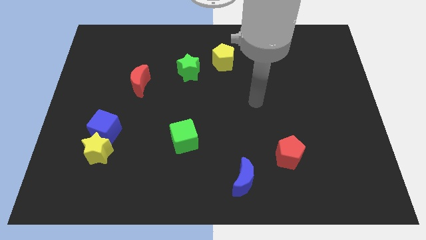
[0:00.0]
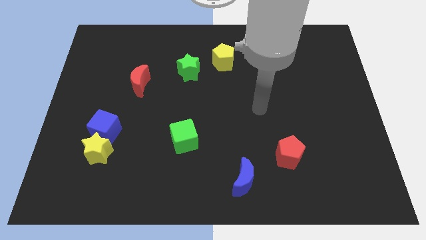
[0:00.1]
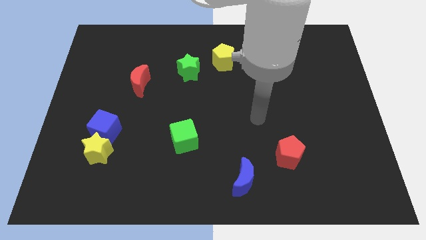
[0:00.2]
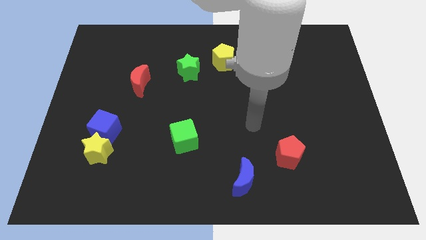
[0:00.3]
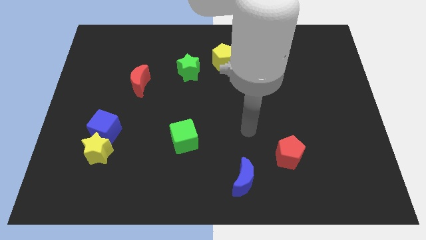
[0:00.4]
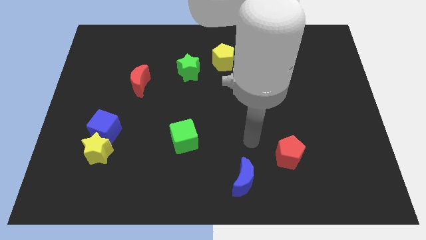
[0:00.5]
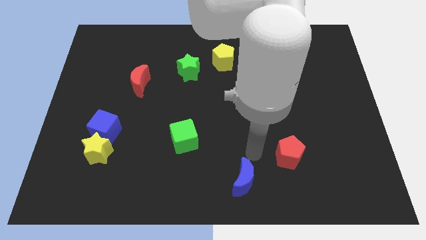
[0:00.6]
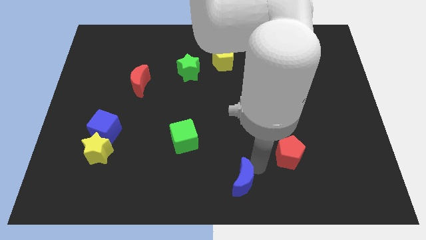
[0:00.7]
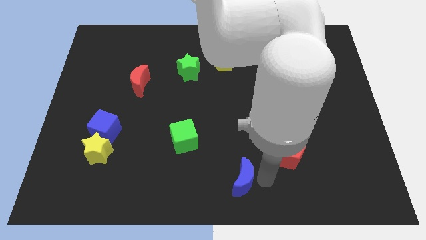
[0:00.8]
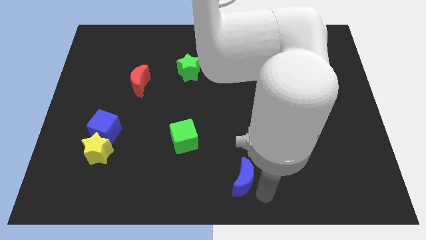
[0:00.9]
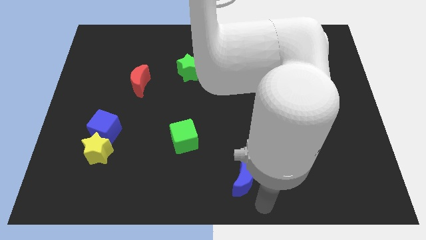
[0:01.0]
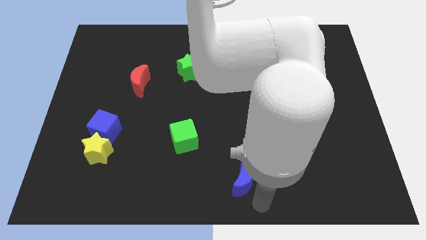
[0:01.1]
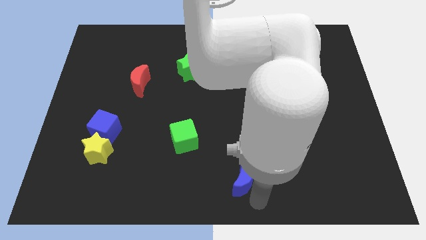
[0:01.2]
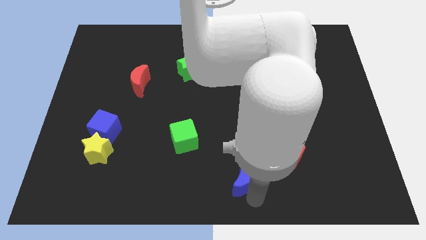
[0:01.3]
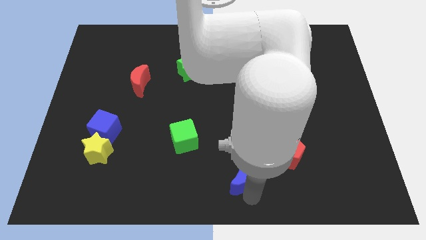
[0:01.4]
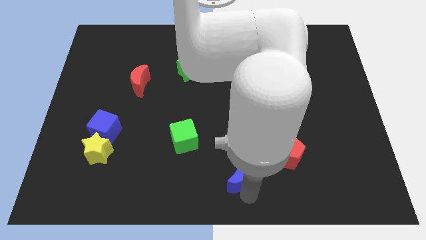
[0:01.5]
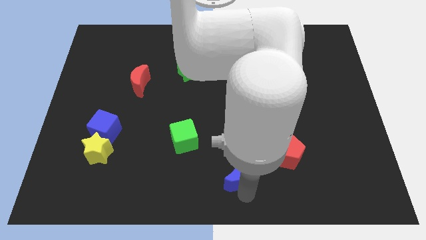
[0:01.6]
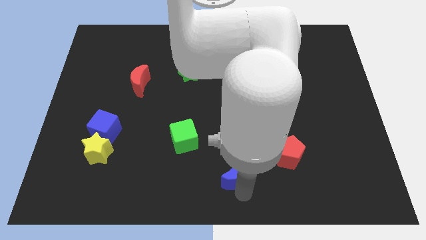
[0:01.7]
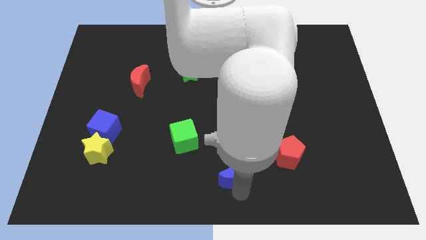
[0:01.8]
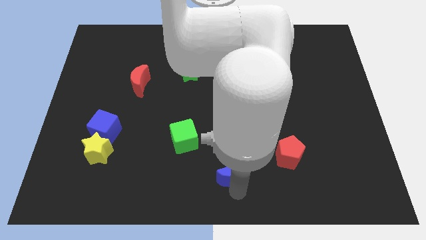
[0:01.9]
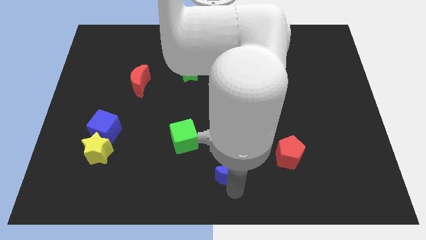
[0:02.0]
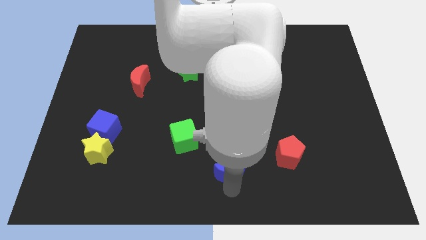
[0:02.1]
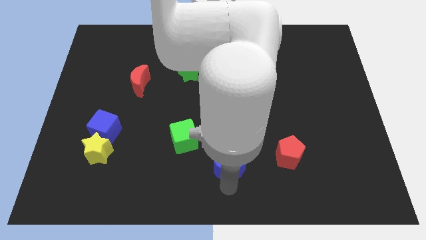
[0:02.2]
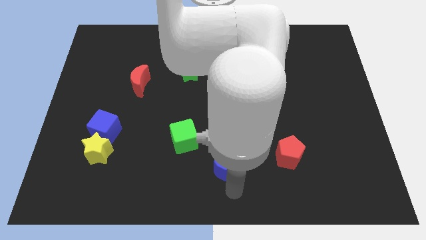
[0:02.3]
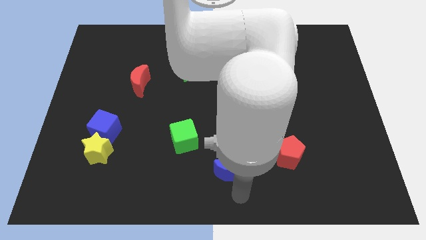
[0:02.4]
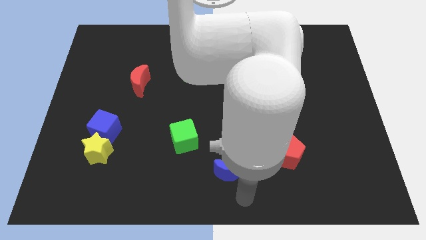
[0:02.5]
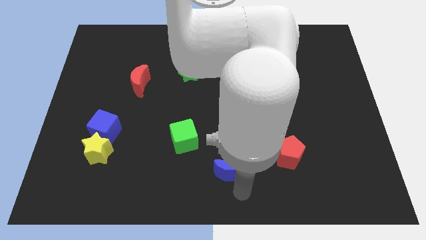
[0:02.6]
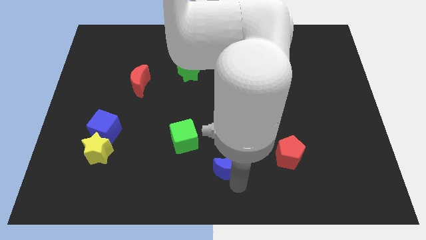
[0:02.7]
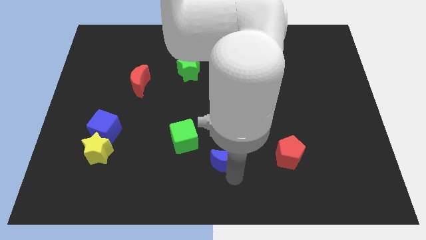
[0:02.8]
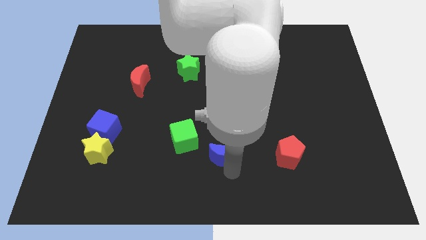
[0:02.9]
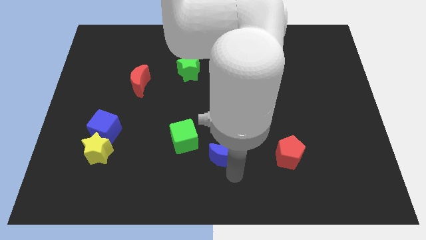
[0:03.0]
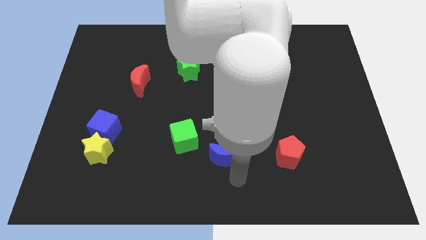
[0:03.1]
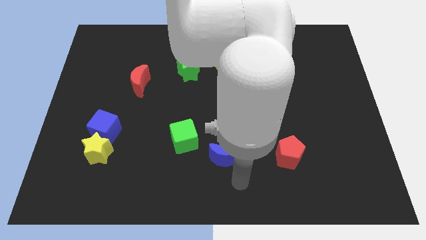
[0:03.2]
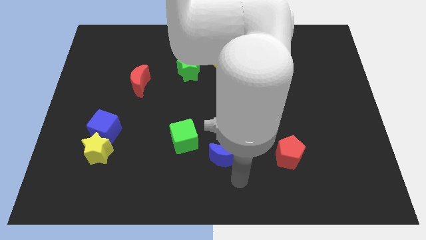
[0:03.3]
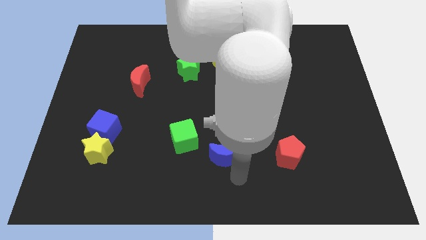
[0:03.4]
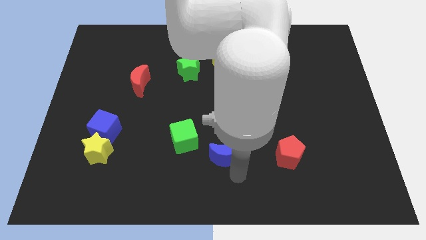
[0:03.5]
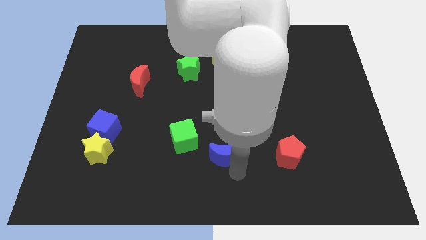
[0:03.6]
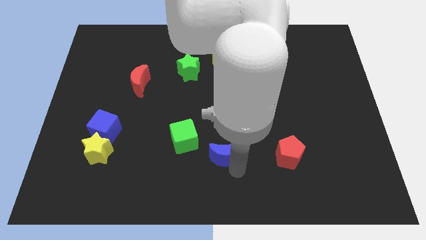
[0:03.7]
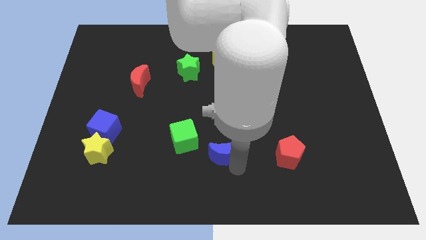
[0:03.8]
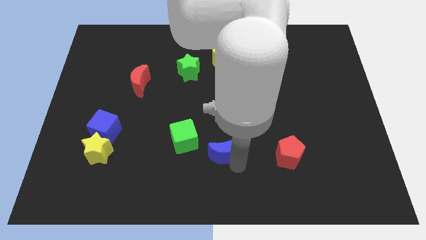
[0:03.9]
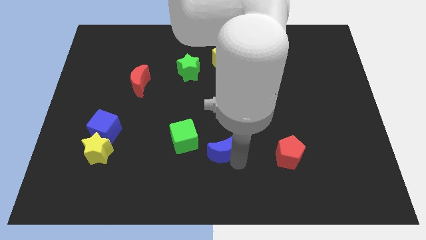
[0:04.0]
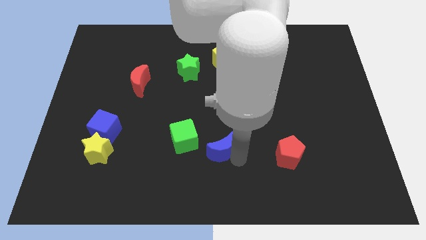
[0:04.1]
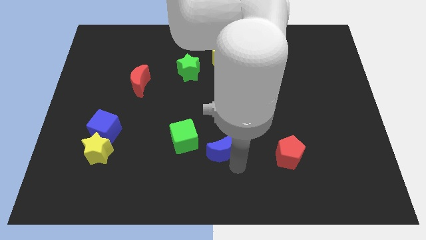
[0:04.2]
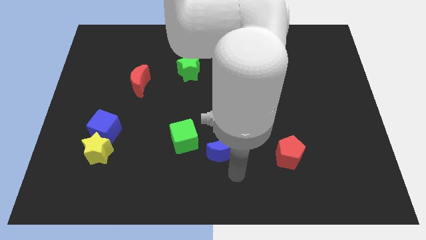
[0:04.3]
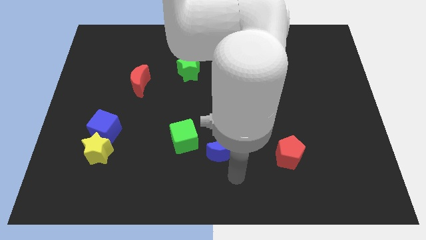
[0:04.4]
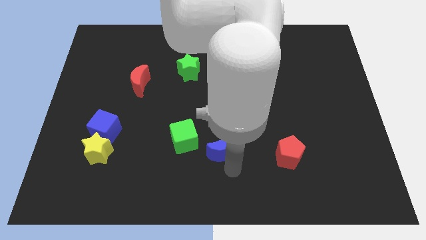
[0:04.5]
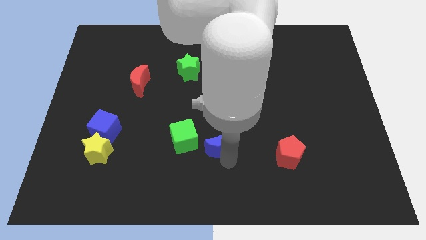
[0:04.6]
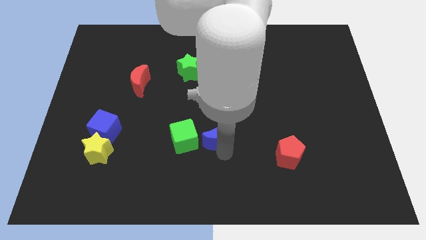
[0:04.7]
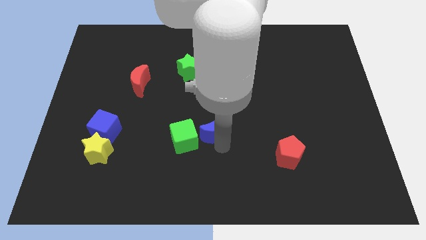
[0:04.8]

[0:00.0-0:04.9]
push the blue moon to the top right side of the green cube

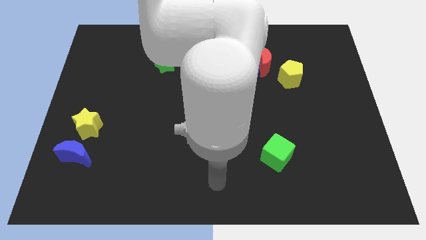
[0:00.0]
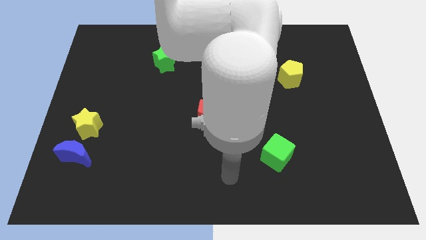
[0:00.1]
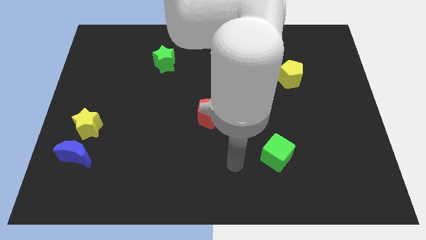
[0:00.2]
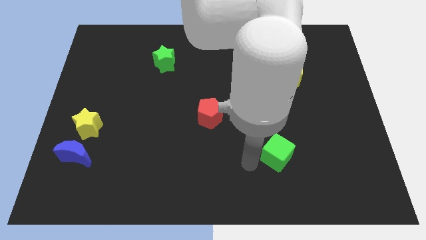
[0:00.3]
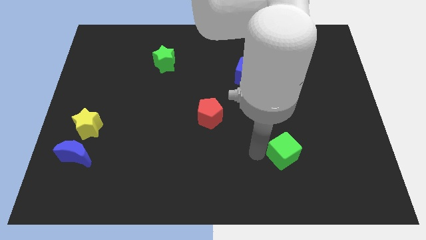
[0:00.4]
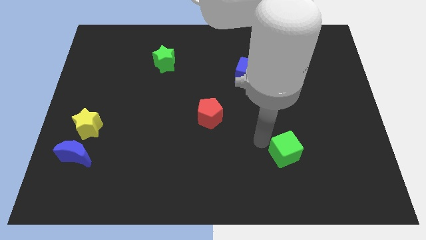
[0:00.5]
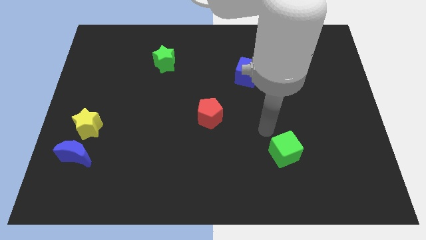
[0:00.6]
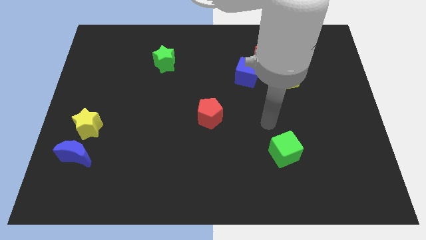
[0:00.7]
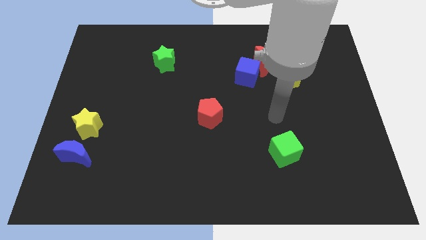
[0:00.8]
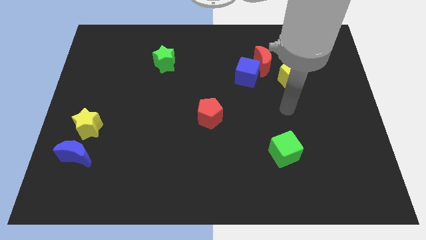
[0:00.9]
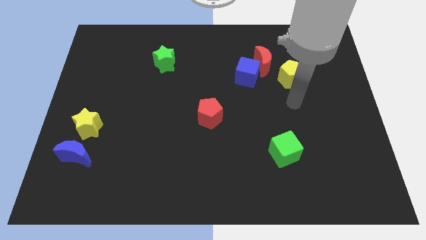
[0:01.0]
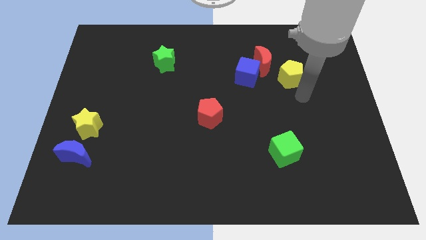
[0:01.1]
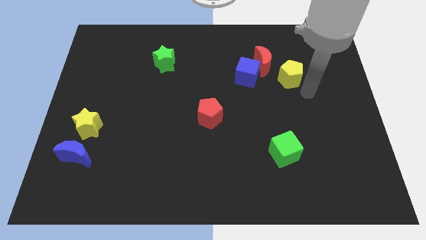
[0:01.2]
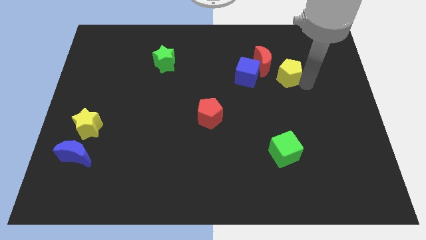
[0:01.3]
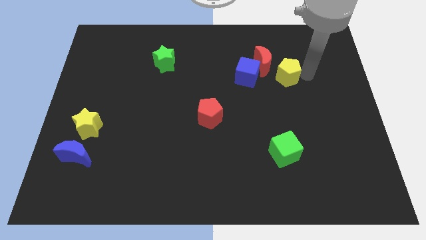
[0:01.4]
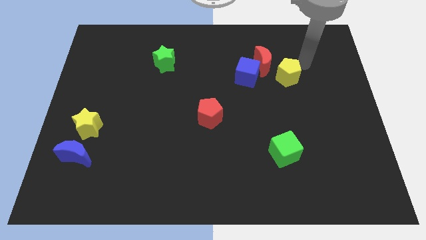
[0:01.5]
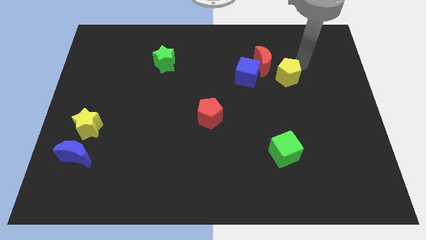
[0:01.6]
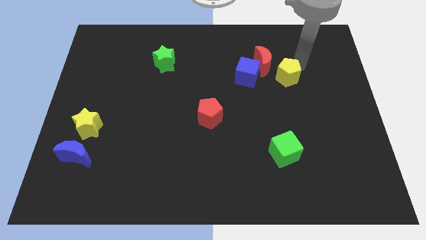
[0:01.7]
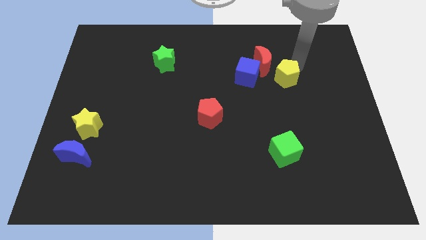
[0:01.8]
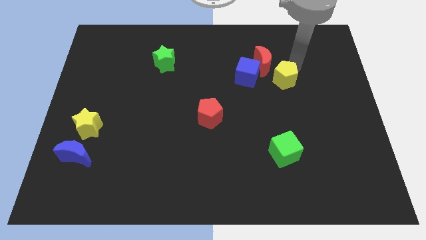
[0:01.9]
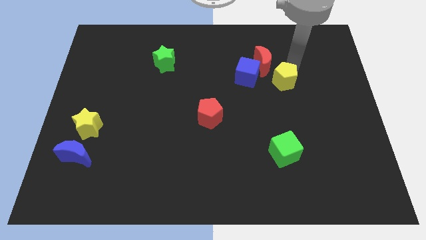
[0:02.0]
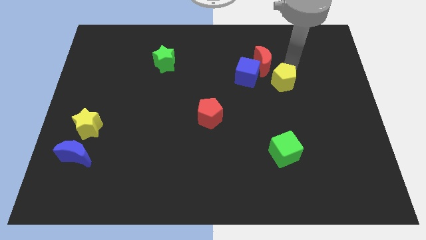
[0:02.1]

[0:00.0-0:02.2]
move the yellow pentagon to the bottom right side of the blue cube

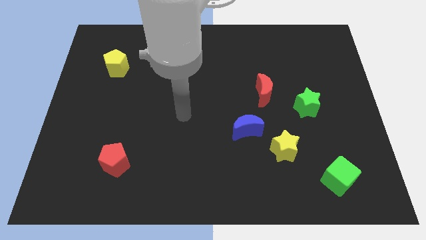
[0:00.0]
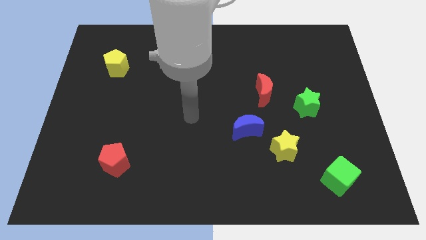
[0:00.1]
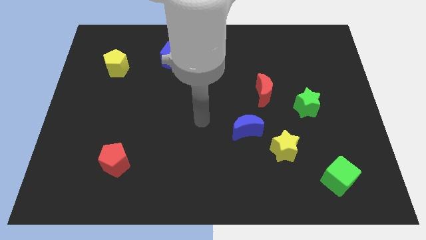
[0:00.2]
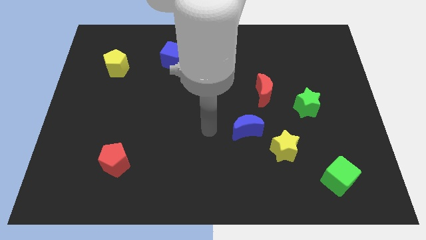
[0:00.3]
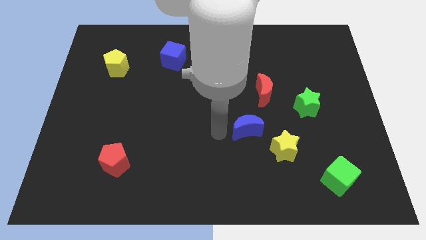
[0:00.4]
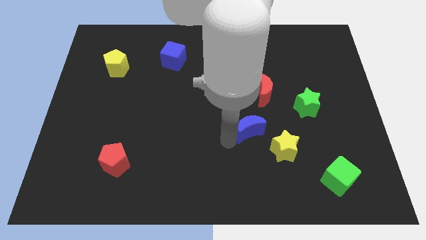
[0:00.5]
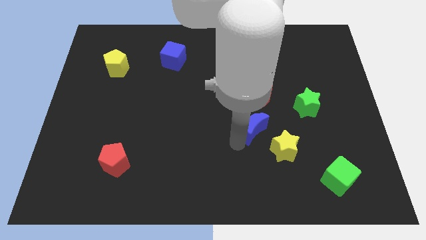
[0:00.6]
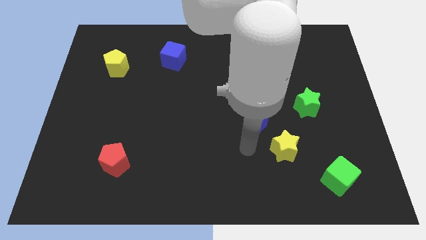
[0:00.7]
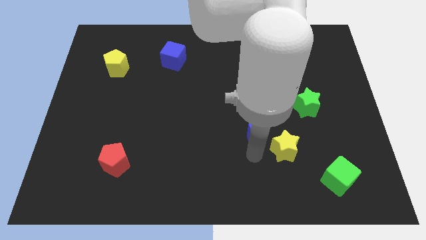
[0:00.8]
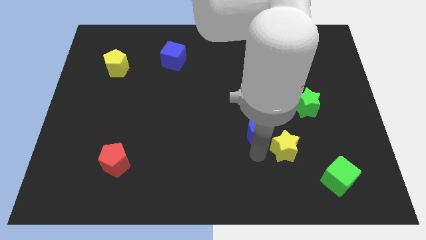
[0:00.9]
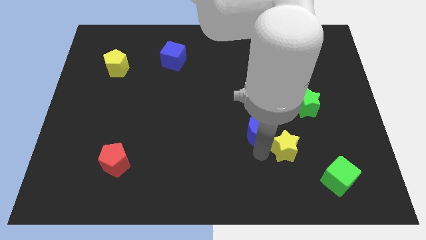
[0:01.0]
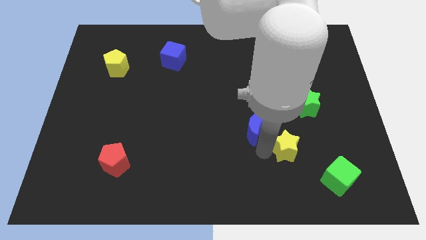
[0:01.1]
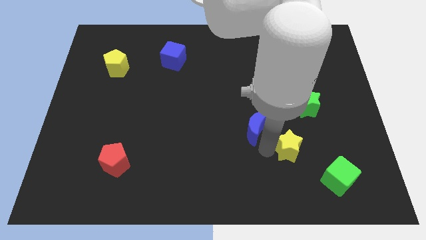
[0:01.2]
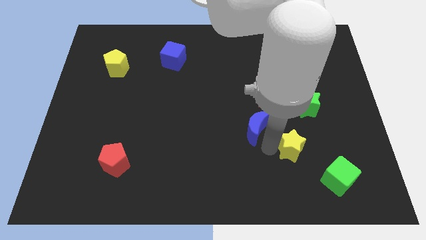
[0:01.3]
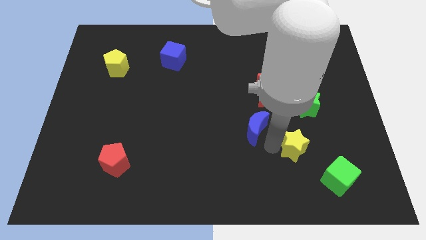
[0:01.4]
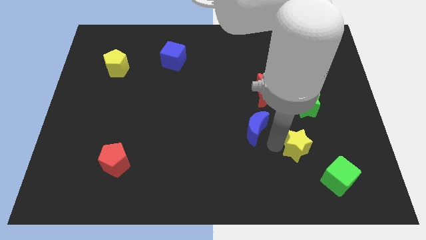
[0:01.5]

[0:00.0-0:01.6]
put the yellow star below the green star

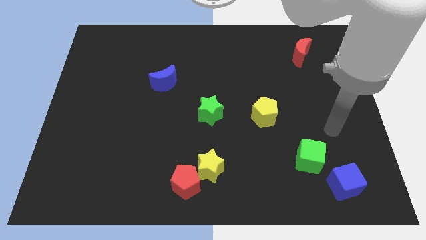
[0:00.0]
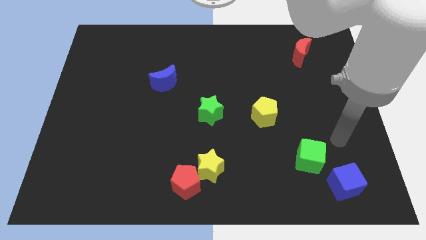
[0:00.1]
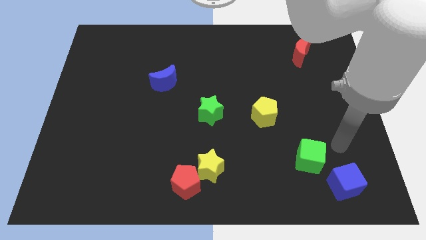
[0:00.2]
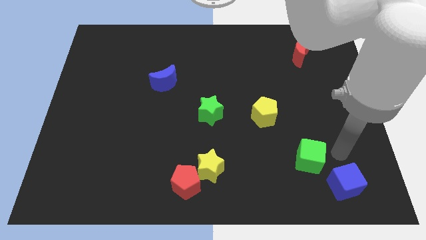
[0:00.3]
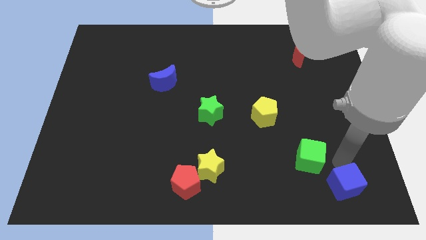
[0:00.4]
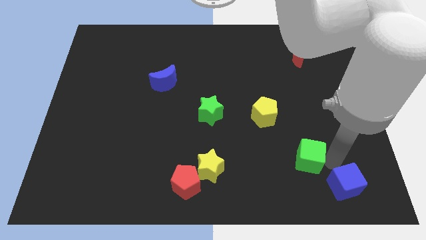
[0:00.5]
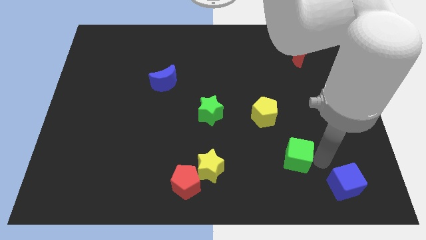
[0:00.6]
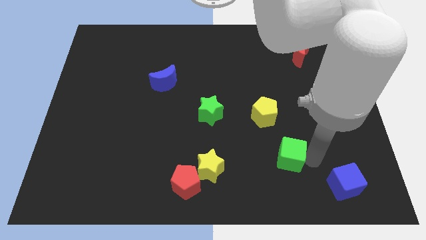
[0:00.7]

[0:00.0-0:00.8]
push the green cube below the yellow pentagon
